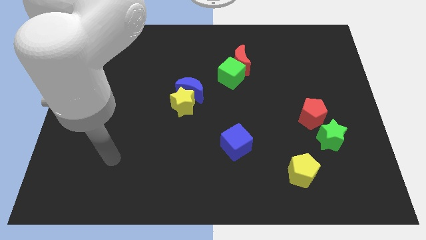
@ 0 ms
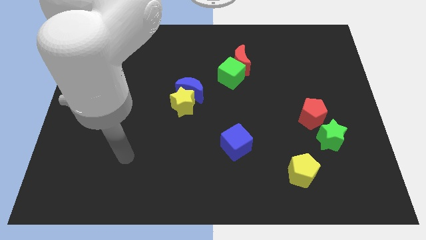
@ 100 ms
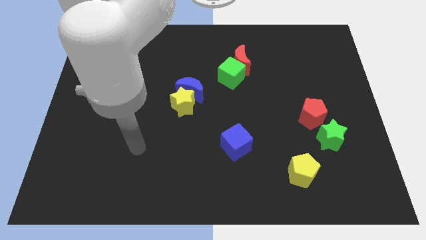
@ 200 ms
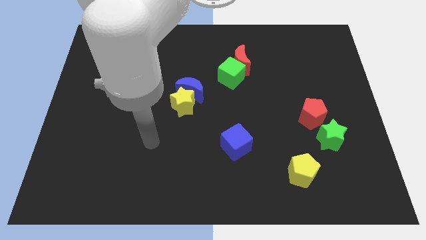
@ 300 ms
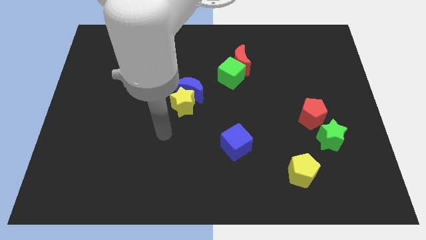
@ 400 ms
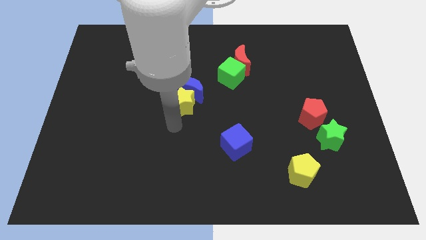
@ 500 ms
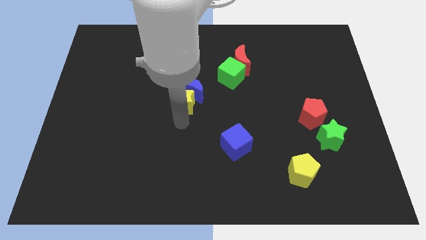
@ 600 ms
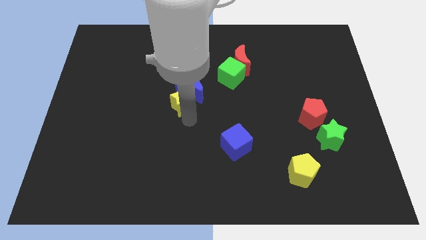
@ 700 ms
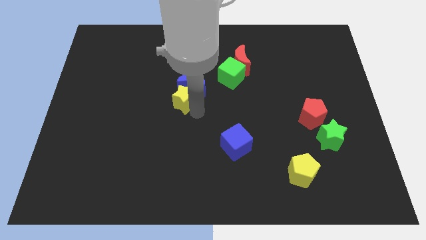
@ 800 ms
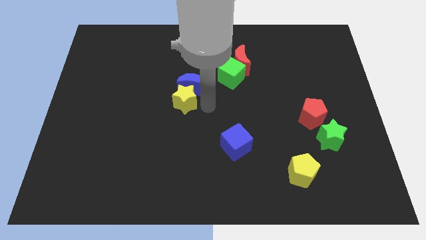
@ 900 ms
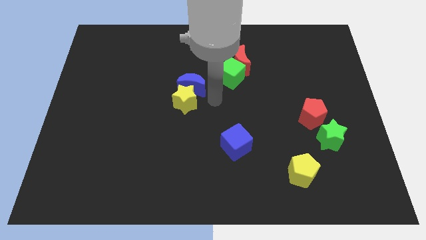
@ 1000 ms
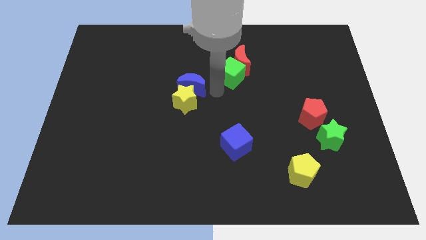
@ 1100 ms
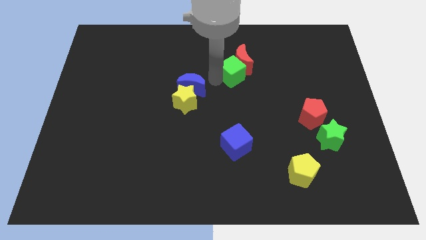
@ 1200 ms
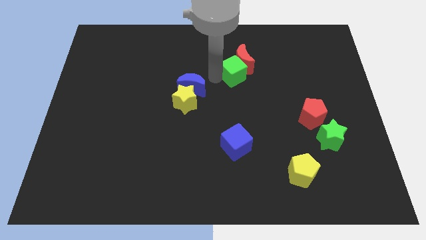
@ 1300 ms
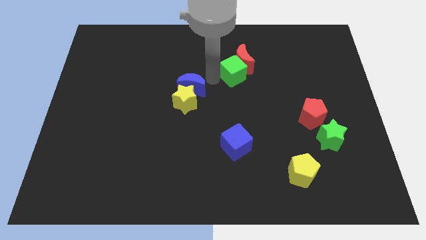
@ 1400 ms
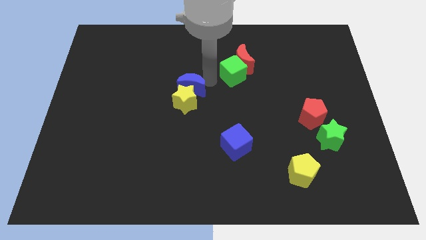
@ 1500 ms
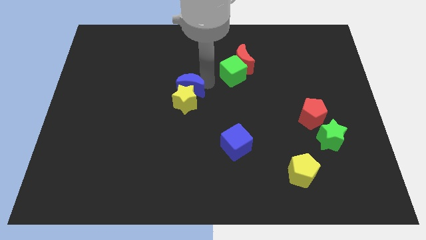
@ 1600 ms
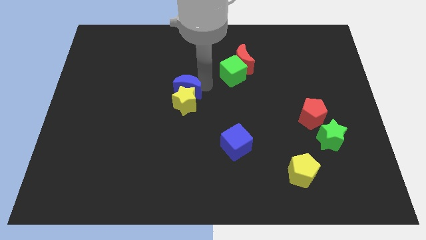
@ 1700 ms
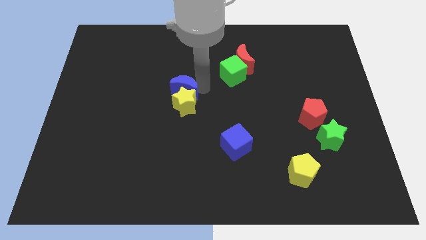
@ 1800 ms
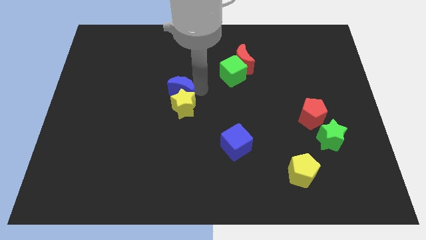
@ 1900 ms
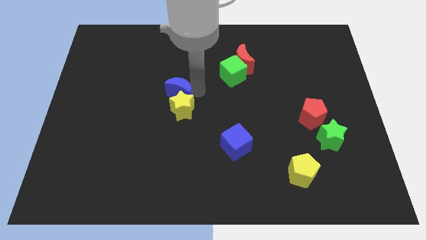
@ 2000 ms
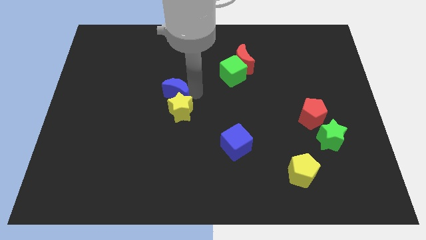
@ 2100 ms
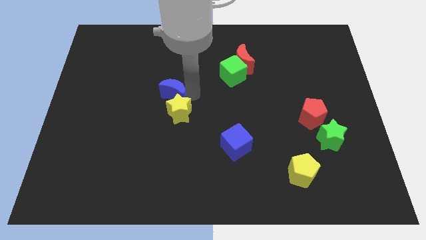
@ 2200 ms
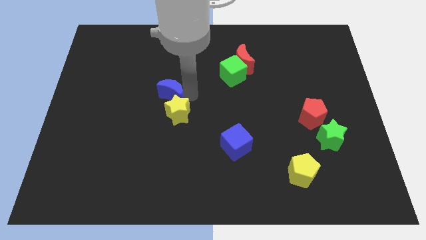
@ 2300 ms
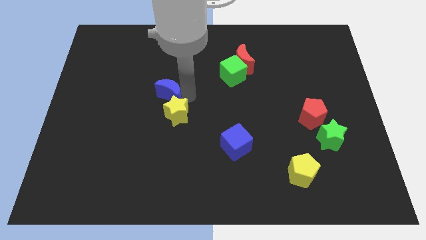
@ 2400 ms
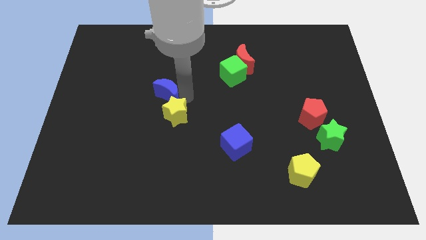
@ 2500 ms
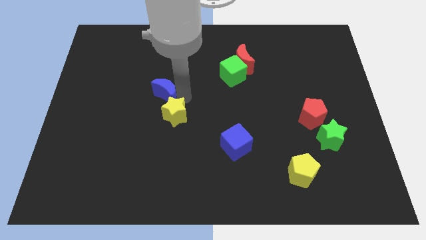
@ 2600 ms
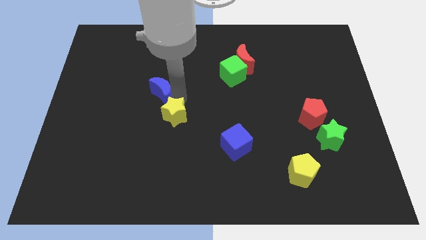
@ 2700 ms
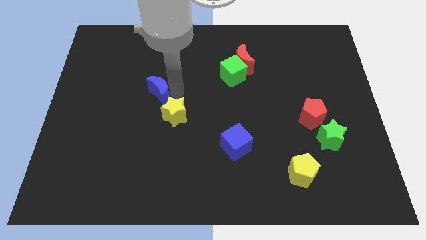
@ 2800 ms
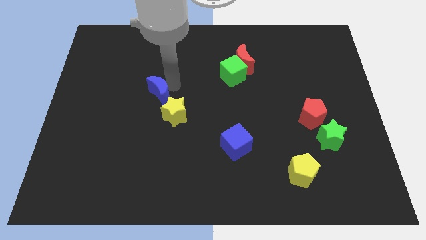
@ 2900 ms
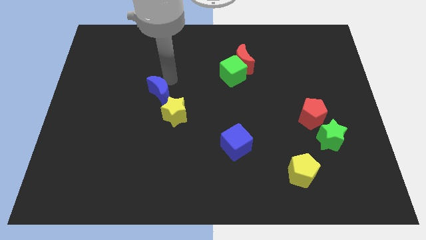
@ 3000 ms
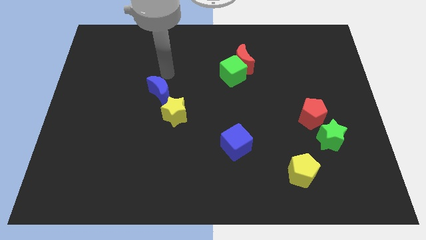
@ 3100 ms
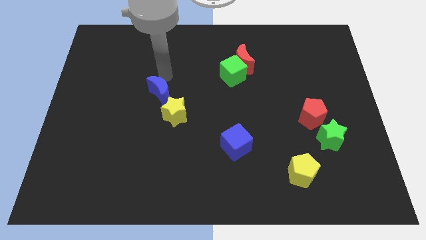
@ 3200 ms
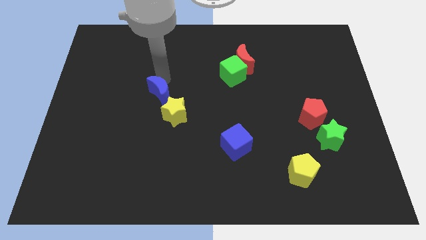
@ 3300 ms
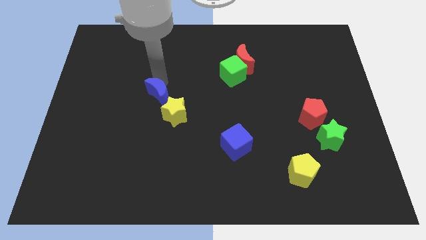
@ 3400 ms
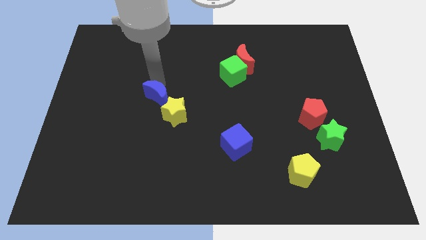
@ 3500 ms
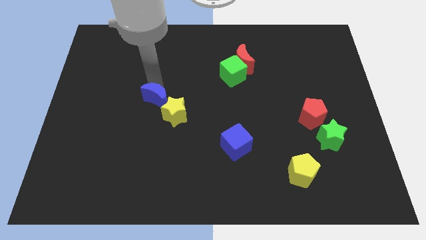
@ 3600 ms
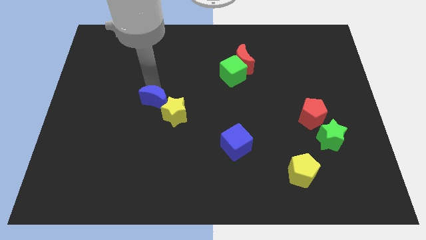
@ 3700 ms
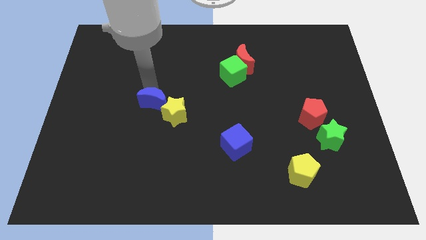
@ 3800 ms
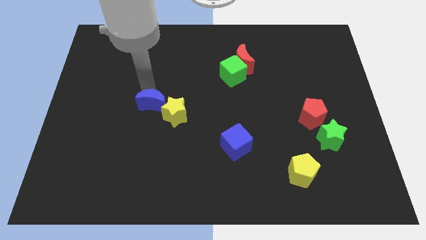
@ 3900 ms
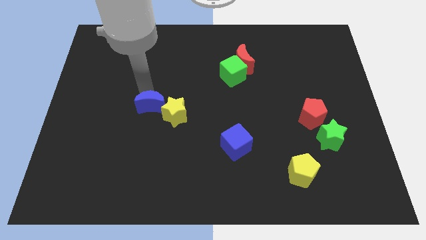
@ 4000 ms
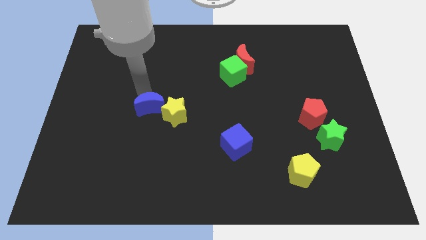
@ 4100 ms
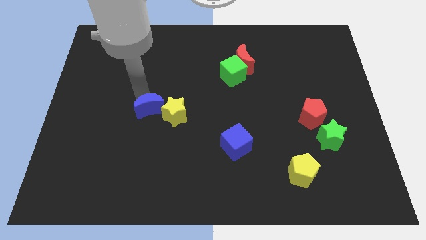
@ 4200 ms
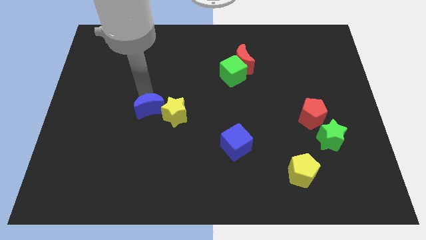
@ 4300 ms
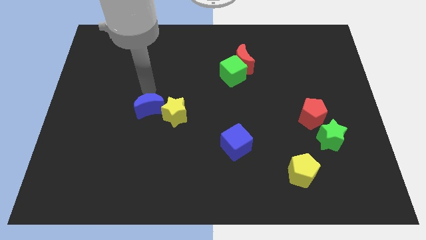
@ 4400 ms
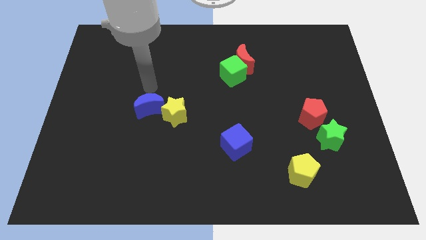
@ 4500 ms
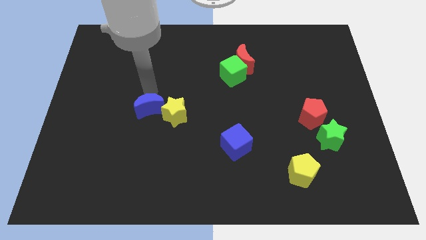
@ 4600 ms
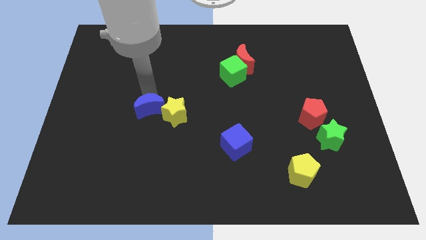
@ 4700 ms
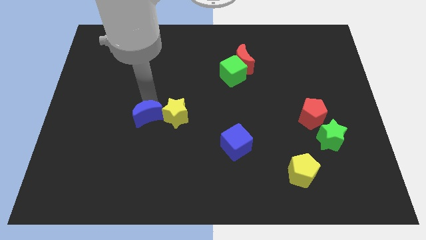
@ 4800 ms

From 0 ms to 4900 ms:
push the blue moon to the bottom left of the yellow star

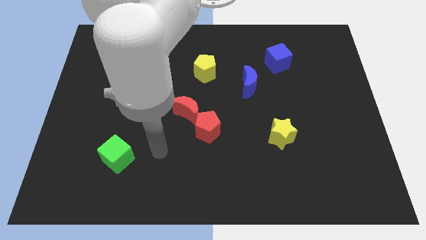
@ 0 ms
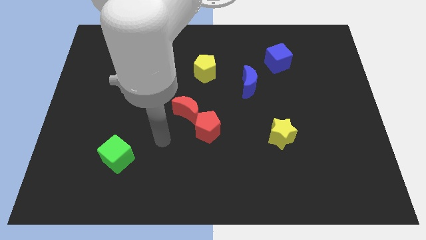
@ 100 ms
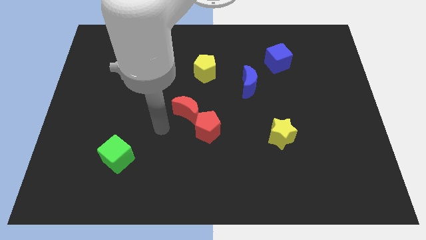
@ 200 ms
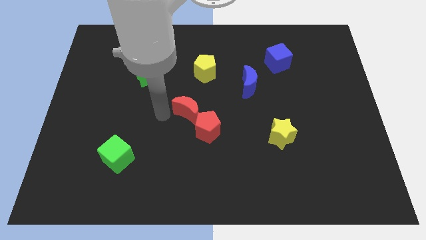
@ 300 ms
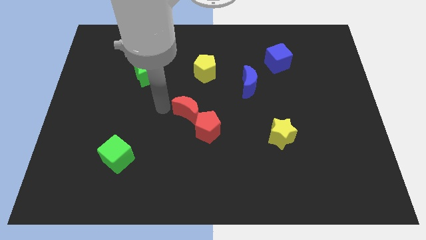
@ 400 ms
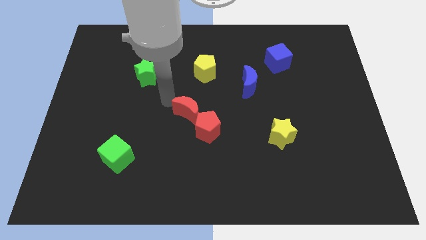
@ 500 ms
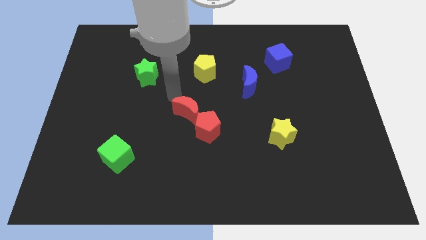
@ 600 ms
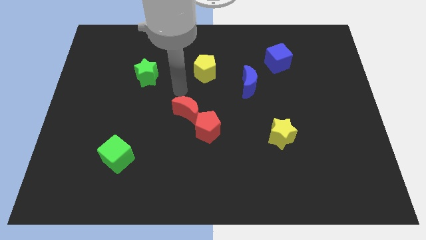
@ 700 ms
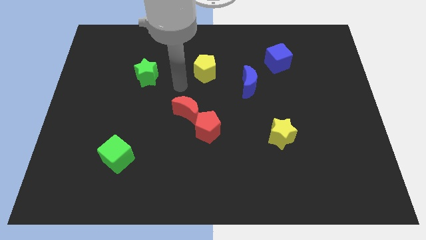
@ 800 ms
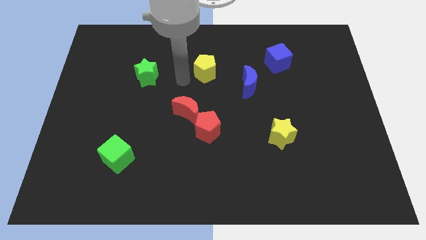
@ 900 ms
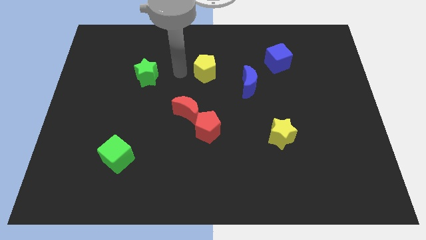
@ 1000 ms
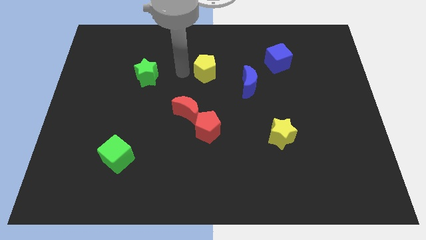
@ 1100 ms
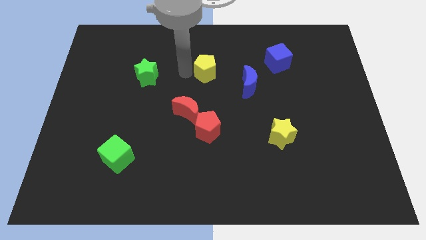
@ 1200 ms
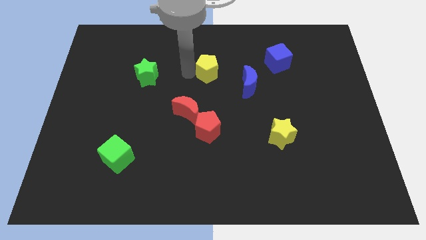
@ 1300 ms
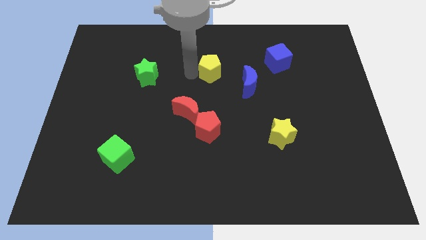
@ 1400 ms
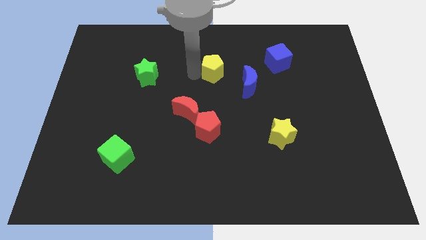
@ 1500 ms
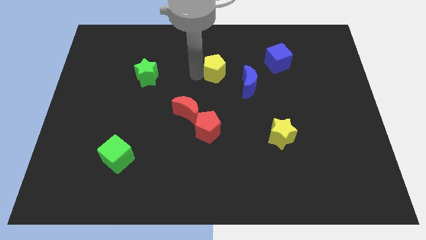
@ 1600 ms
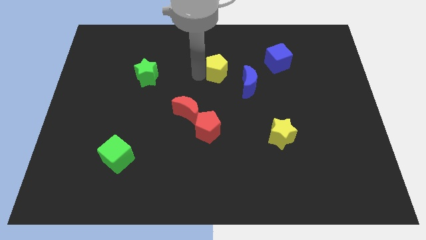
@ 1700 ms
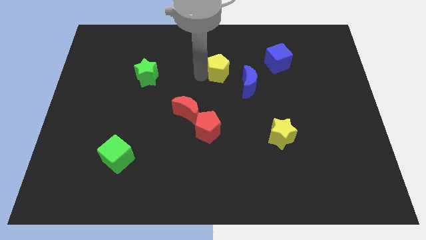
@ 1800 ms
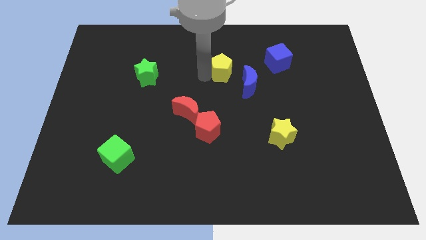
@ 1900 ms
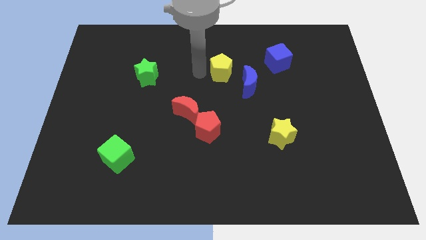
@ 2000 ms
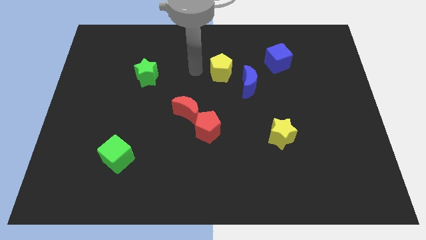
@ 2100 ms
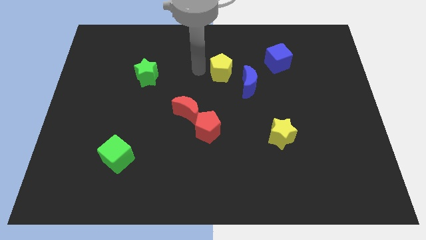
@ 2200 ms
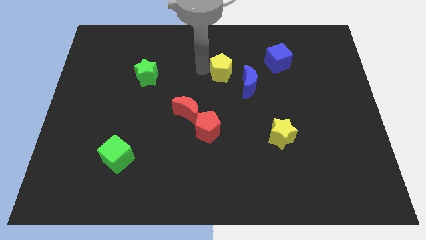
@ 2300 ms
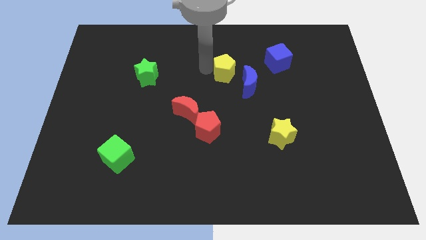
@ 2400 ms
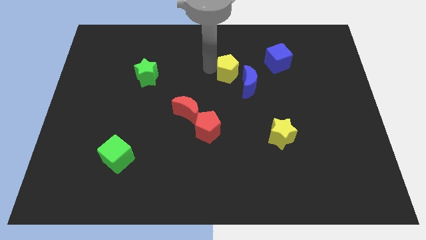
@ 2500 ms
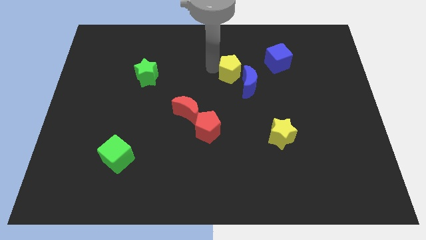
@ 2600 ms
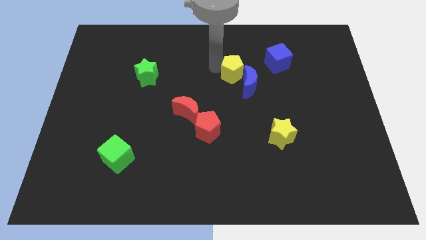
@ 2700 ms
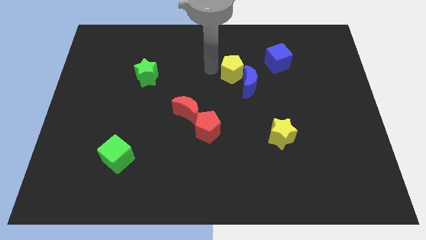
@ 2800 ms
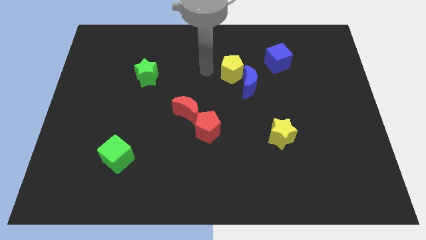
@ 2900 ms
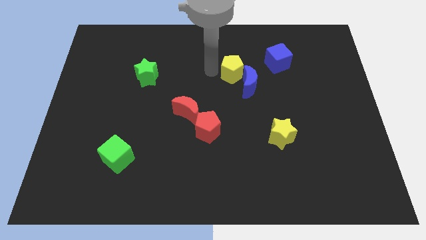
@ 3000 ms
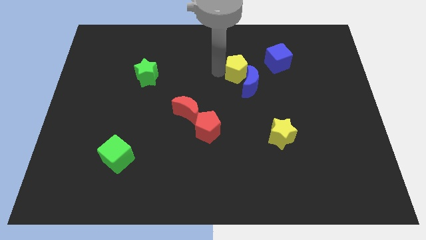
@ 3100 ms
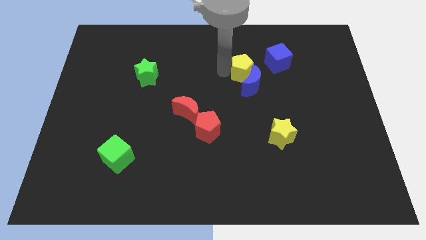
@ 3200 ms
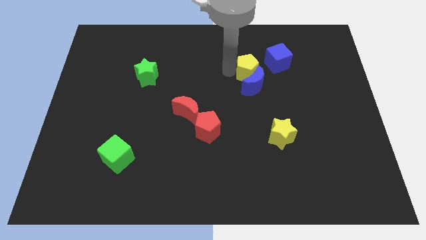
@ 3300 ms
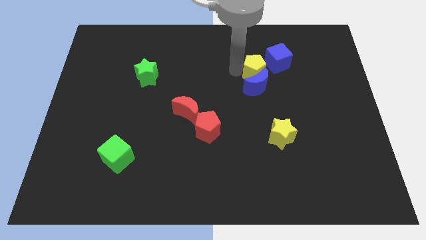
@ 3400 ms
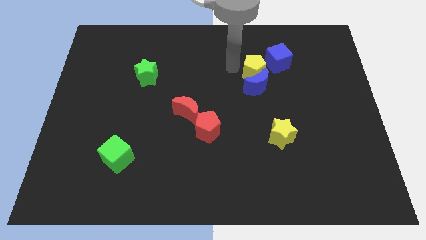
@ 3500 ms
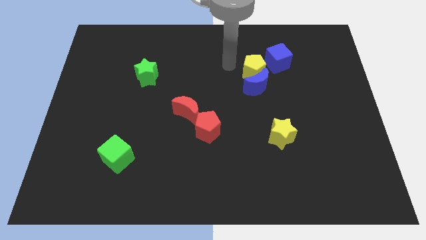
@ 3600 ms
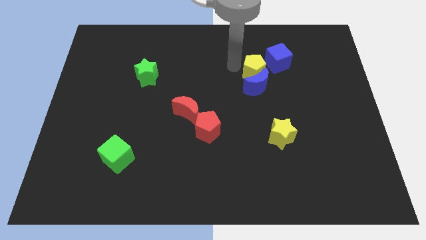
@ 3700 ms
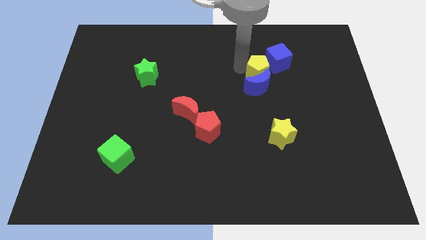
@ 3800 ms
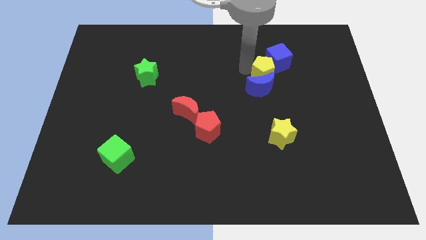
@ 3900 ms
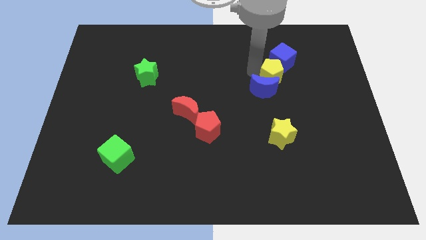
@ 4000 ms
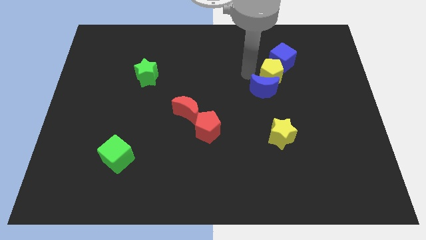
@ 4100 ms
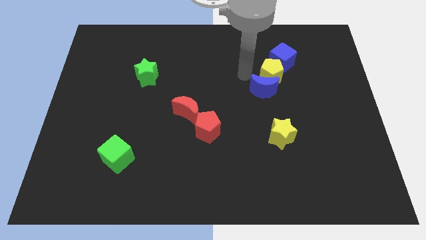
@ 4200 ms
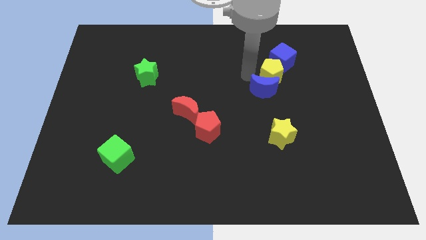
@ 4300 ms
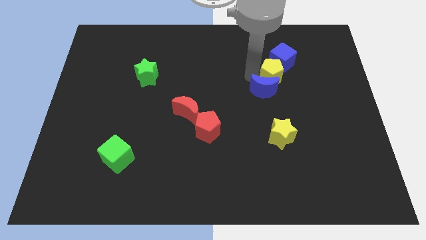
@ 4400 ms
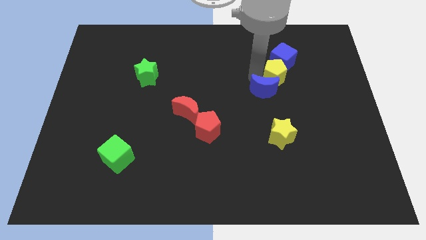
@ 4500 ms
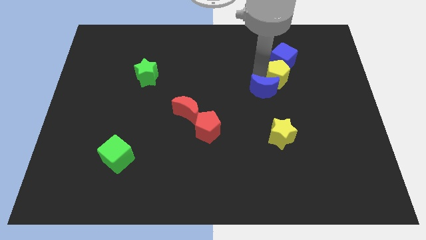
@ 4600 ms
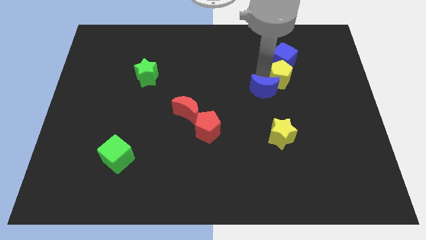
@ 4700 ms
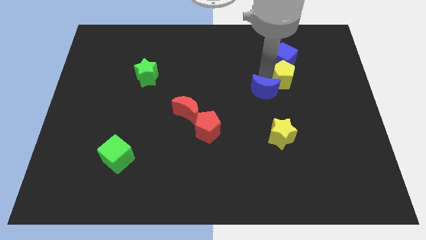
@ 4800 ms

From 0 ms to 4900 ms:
put the yellow pentagon diagonally down and to the right of the blue cube
